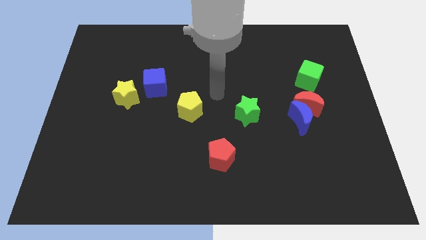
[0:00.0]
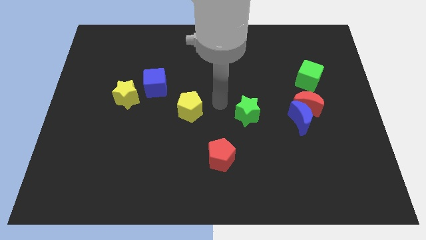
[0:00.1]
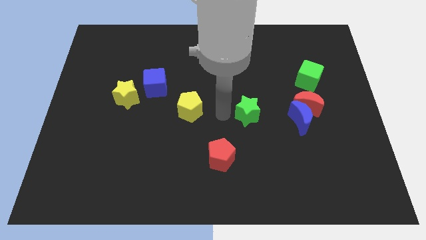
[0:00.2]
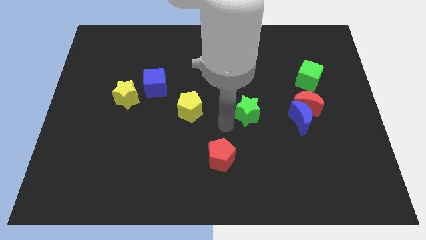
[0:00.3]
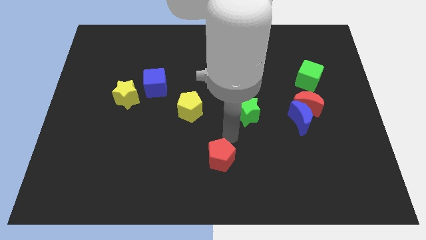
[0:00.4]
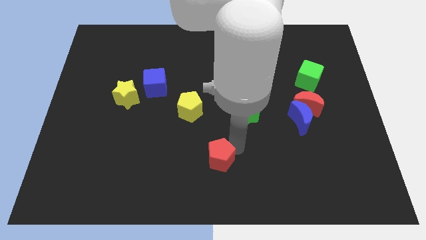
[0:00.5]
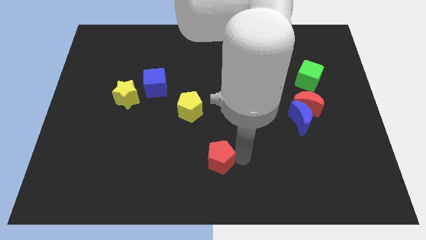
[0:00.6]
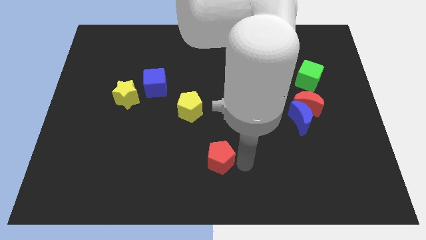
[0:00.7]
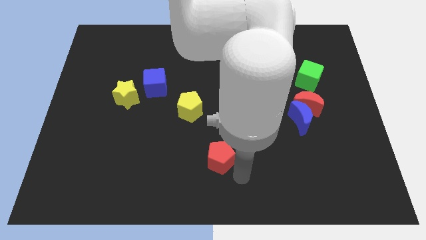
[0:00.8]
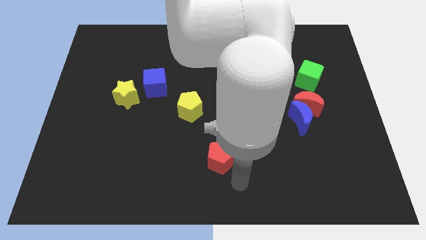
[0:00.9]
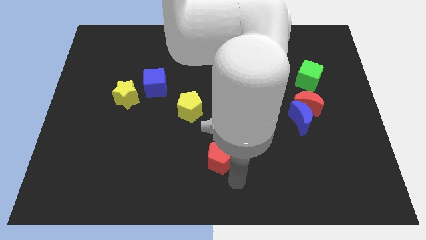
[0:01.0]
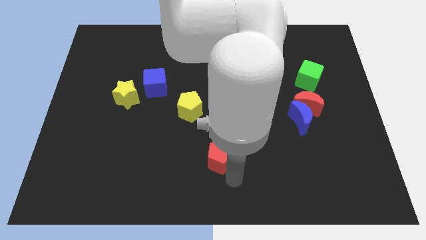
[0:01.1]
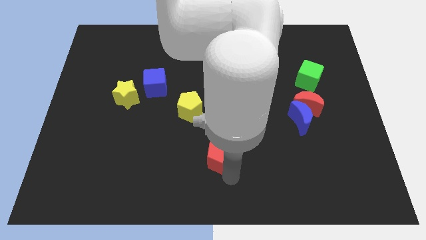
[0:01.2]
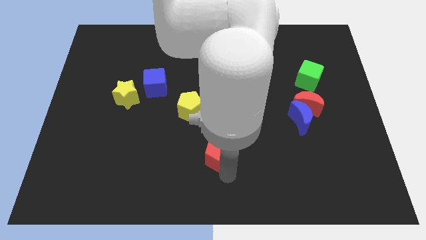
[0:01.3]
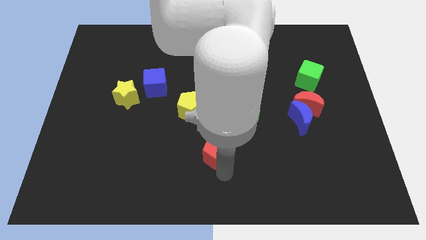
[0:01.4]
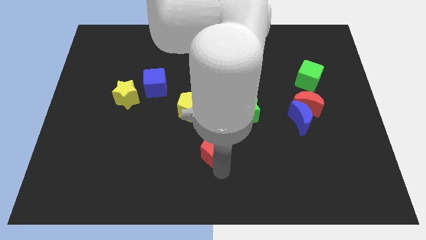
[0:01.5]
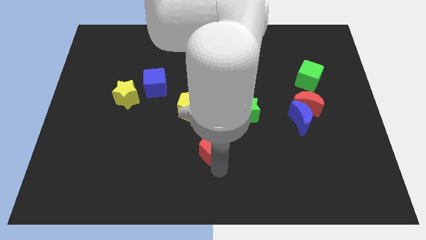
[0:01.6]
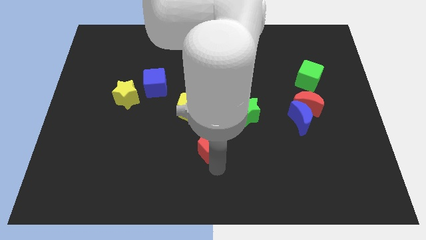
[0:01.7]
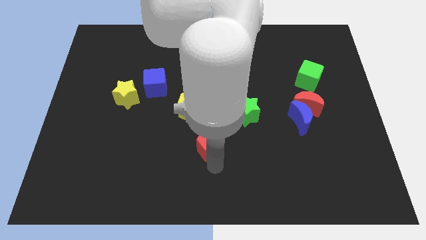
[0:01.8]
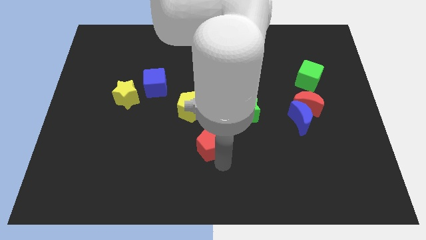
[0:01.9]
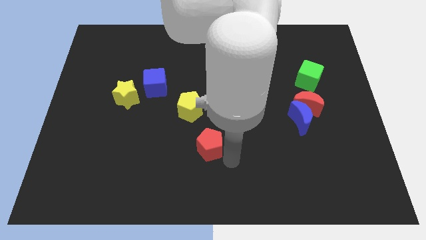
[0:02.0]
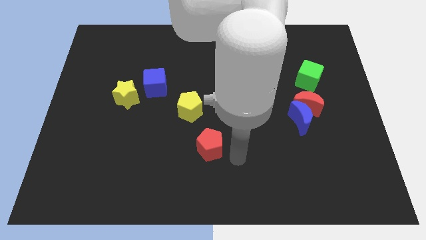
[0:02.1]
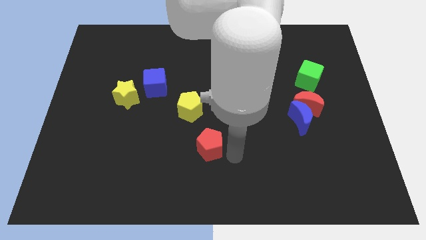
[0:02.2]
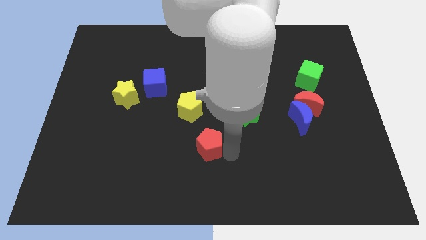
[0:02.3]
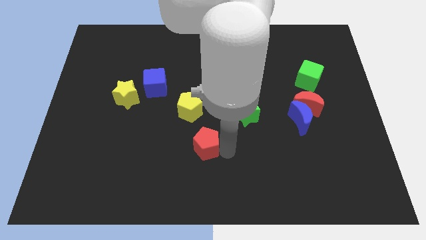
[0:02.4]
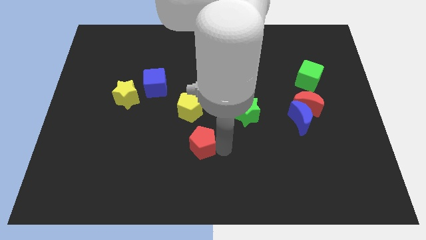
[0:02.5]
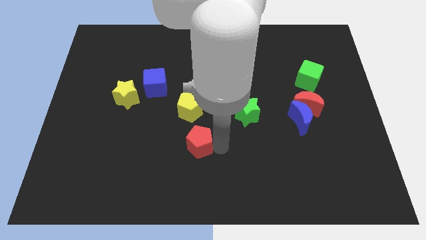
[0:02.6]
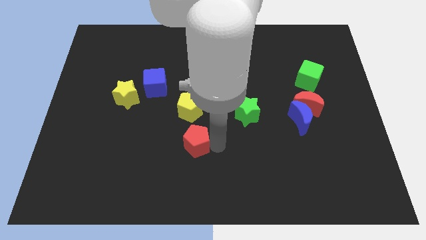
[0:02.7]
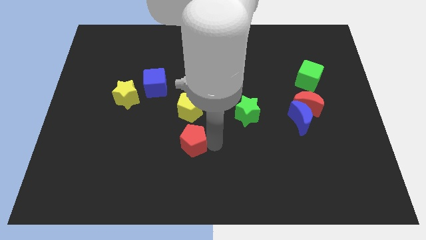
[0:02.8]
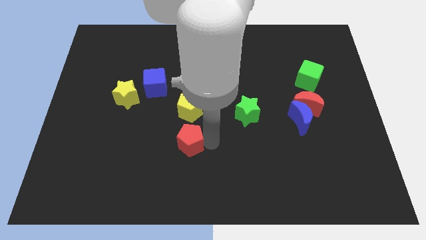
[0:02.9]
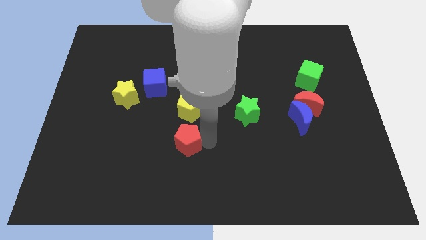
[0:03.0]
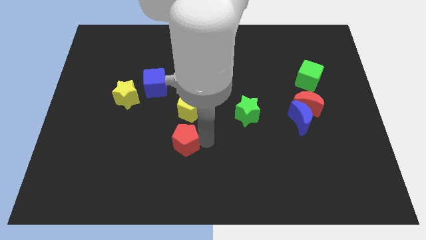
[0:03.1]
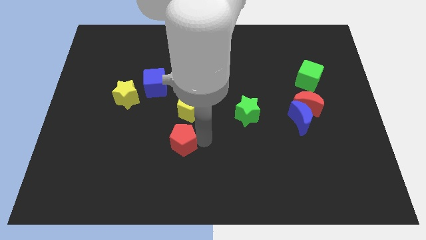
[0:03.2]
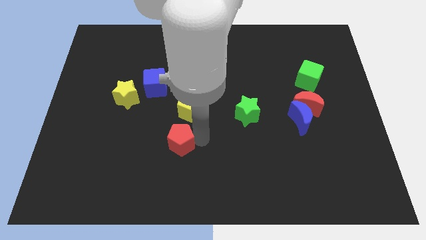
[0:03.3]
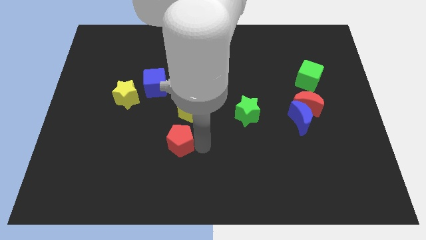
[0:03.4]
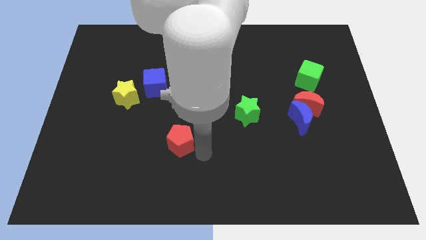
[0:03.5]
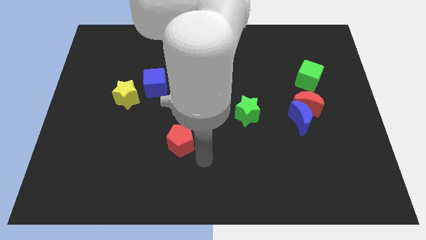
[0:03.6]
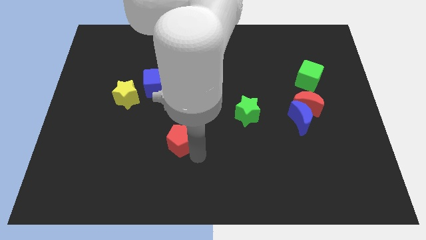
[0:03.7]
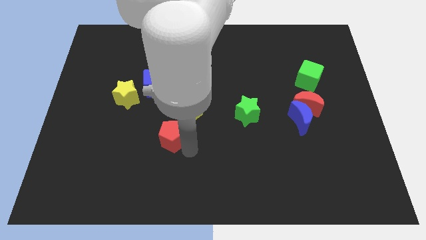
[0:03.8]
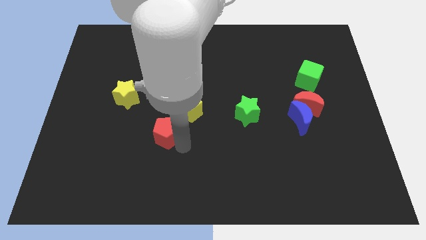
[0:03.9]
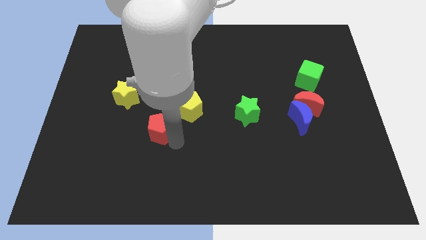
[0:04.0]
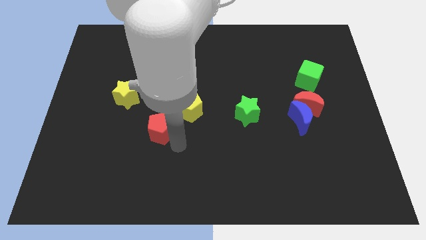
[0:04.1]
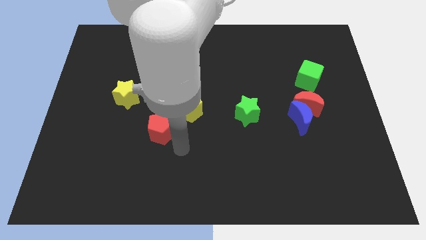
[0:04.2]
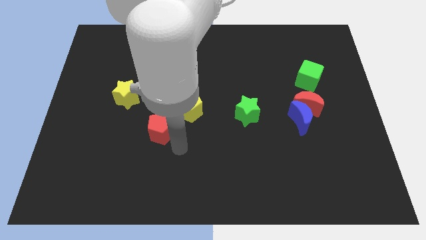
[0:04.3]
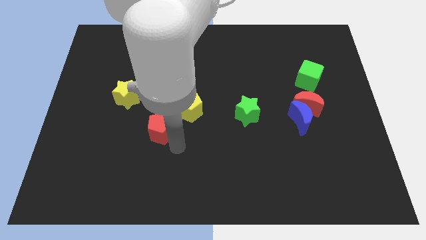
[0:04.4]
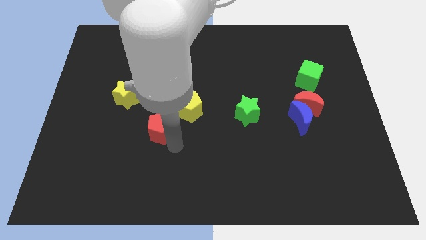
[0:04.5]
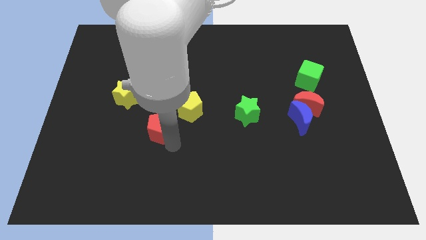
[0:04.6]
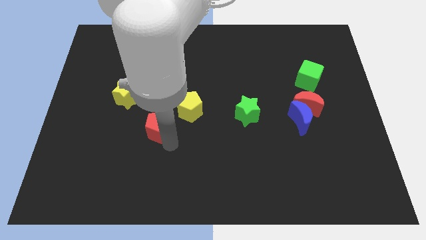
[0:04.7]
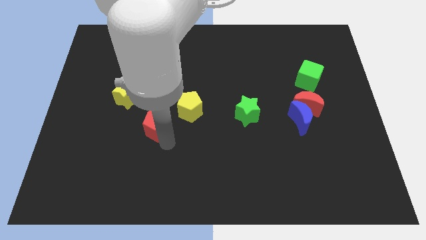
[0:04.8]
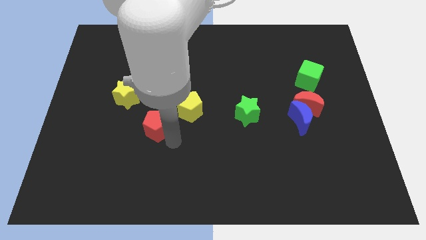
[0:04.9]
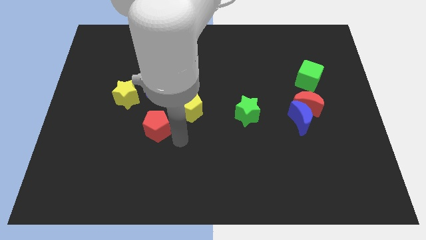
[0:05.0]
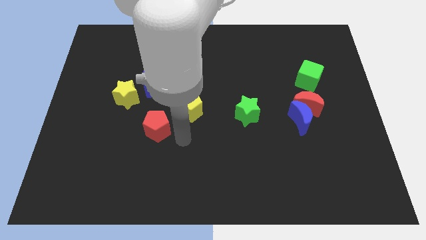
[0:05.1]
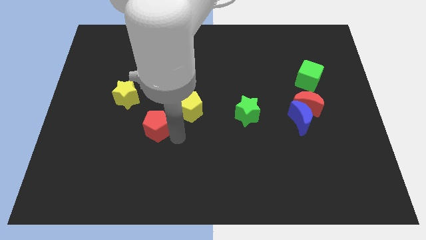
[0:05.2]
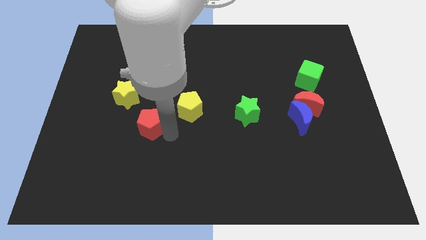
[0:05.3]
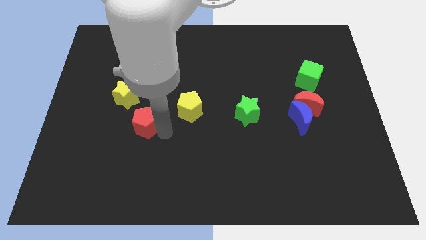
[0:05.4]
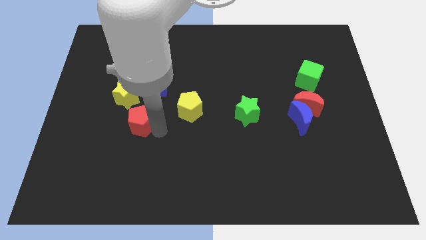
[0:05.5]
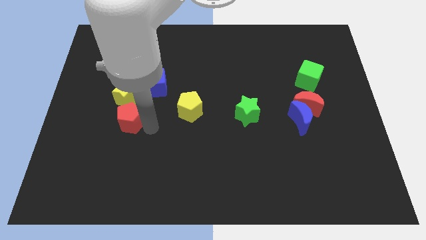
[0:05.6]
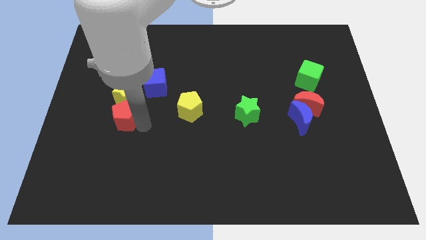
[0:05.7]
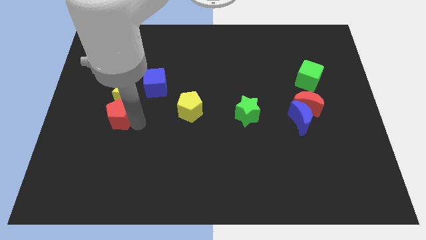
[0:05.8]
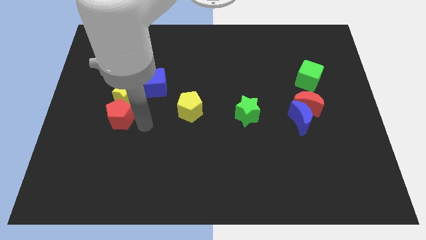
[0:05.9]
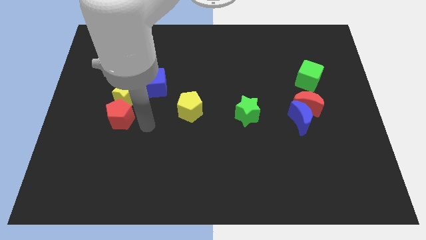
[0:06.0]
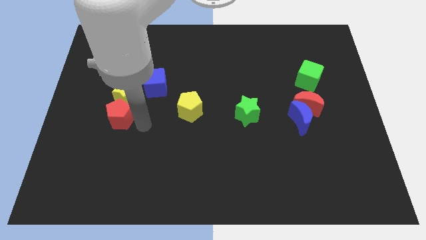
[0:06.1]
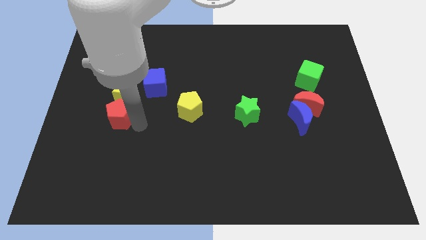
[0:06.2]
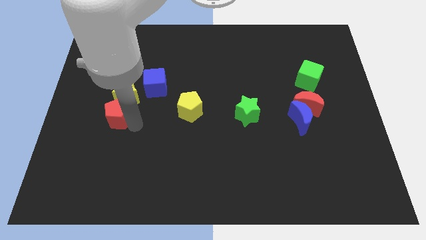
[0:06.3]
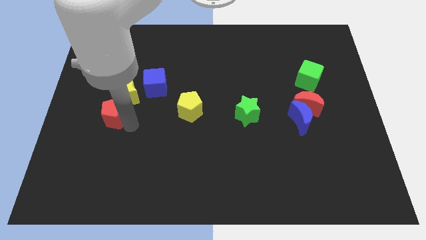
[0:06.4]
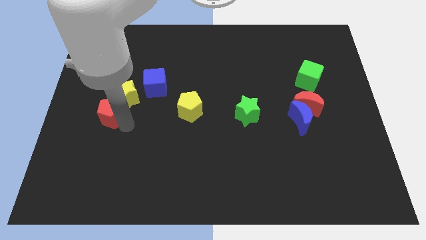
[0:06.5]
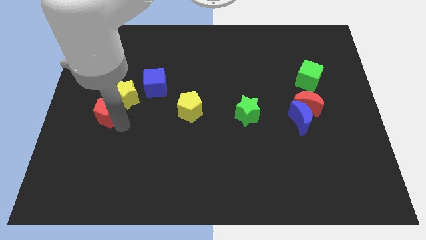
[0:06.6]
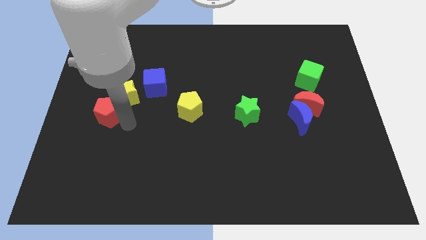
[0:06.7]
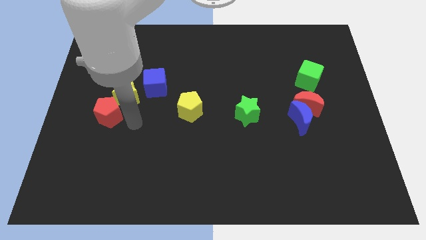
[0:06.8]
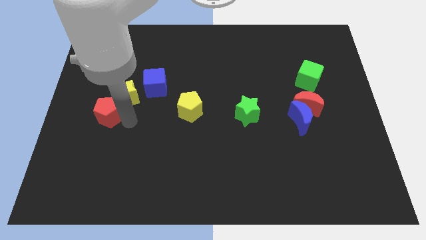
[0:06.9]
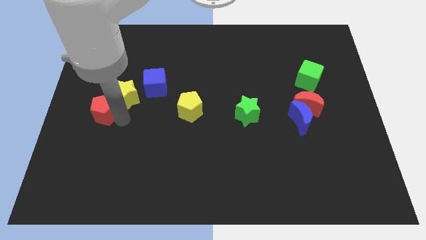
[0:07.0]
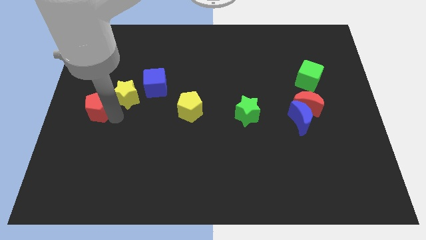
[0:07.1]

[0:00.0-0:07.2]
push the red pentagon to the center left

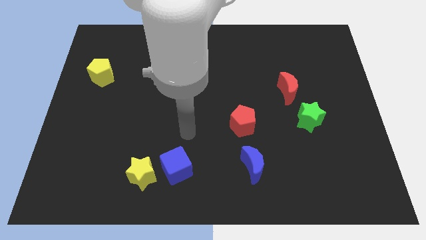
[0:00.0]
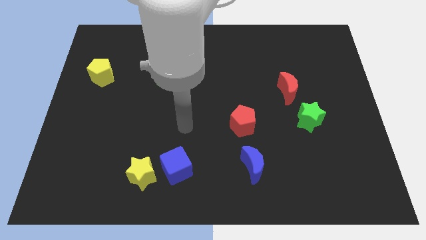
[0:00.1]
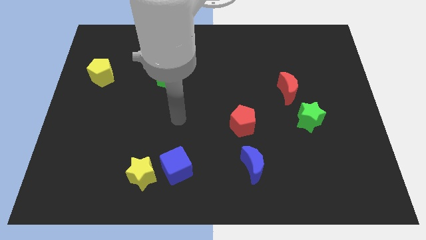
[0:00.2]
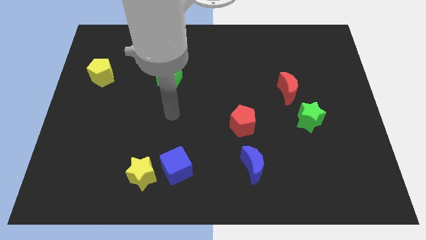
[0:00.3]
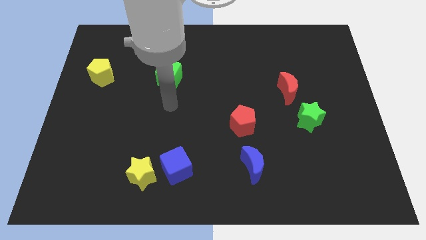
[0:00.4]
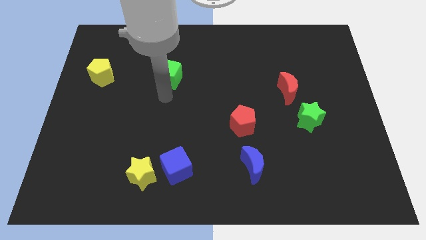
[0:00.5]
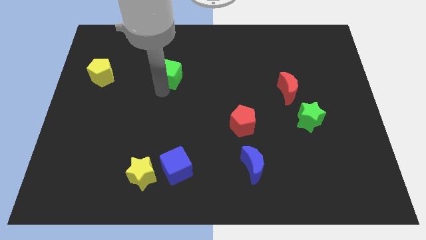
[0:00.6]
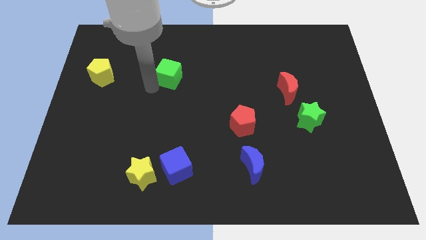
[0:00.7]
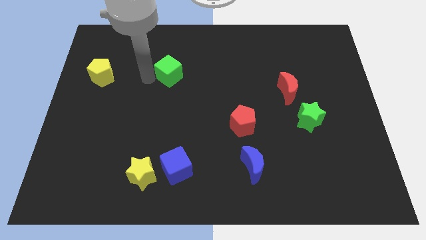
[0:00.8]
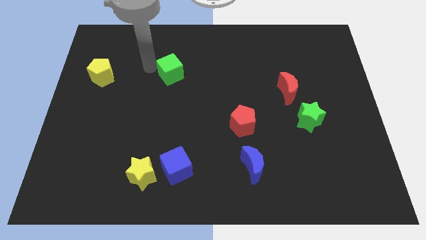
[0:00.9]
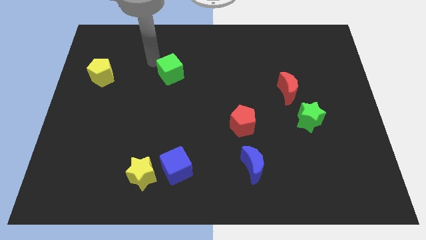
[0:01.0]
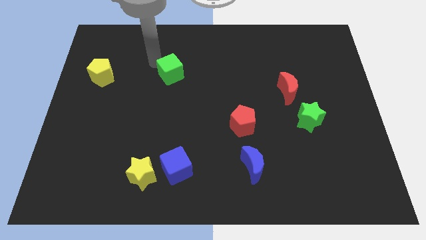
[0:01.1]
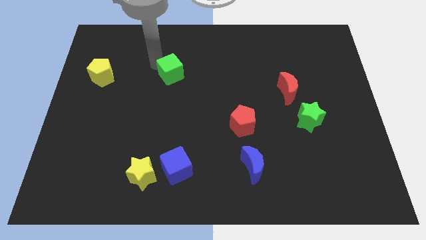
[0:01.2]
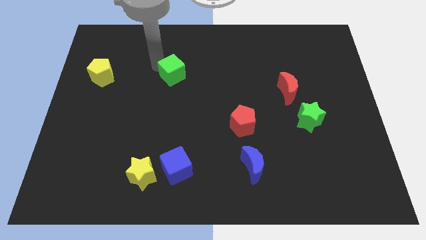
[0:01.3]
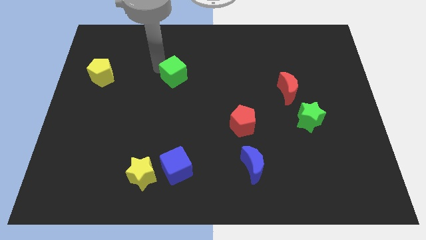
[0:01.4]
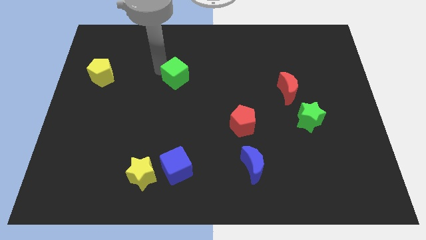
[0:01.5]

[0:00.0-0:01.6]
slide the green cube to the center of the board
